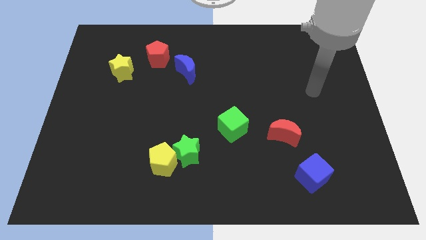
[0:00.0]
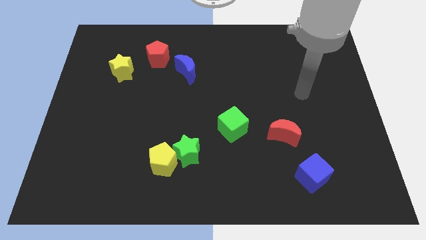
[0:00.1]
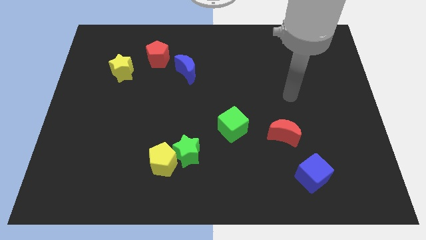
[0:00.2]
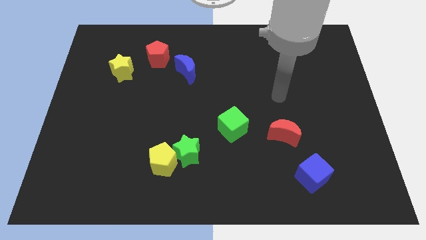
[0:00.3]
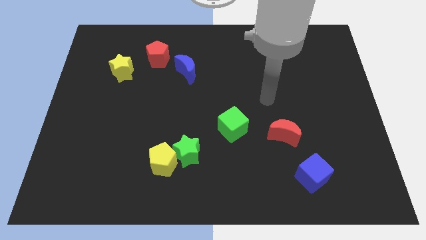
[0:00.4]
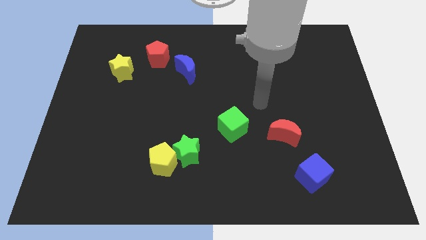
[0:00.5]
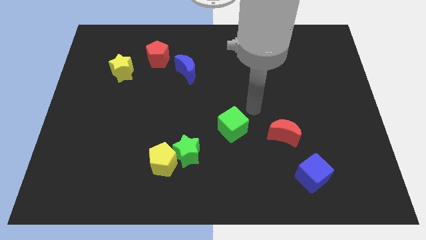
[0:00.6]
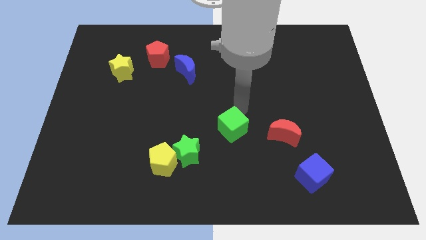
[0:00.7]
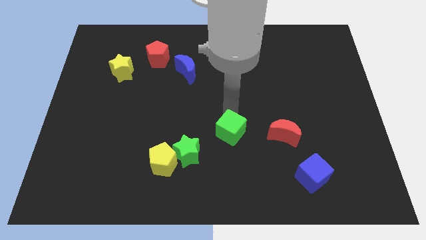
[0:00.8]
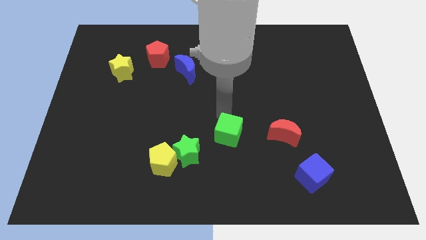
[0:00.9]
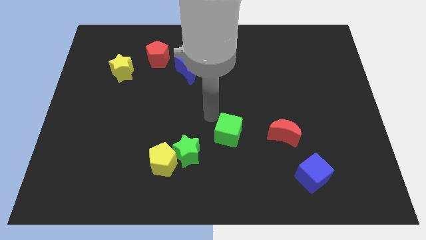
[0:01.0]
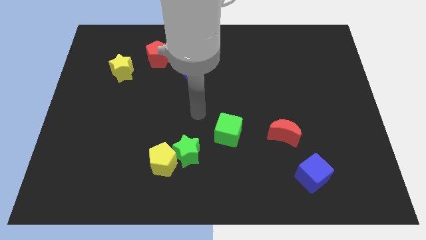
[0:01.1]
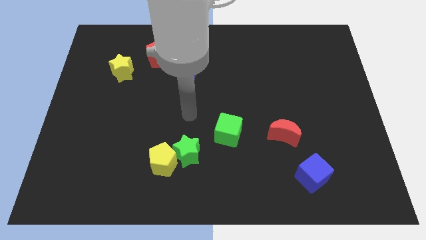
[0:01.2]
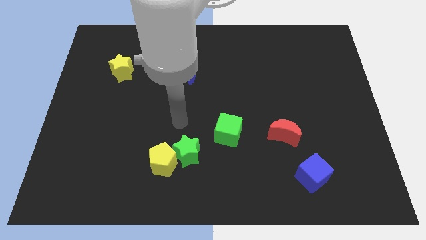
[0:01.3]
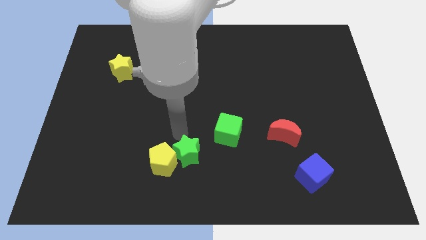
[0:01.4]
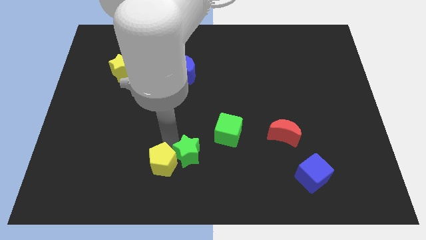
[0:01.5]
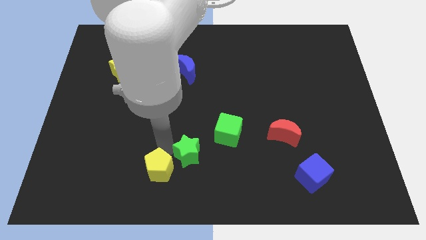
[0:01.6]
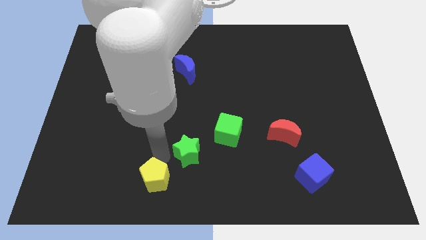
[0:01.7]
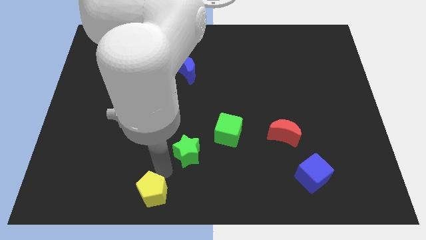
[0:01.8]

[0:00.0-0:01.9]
pull the green star apart from the yellow pentagon

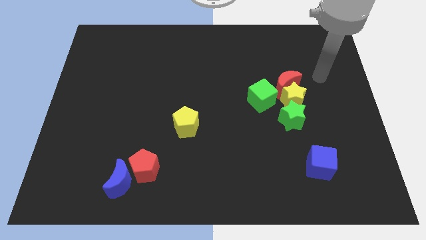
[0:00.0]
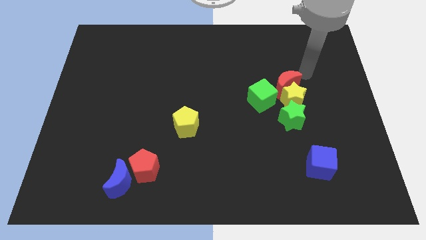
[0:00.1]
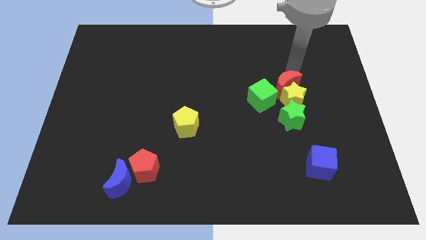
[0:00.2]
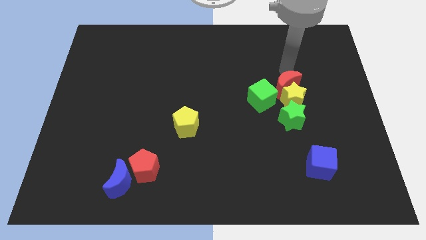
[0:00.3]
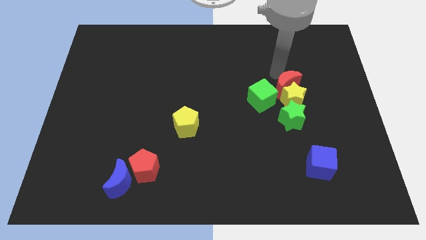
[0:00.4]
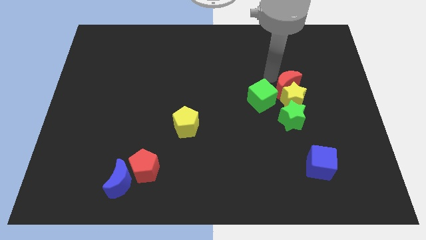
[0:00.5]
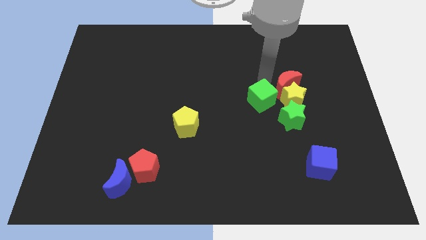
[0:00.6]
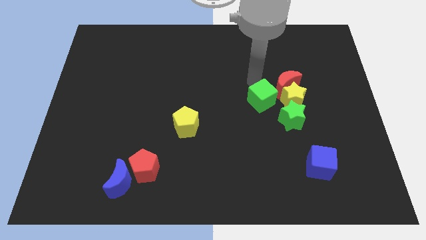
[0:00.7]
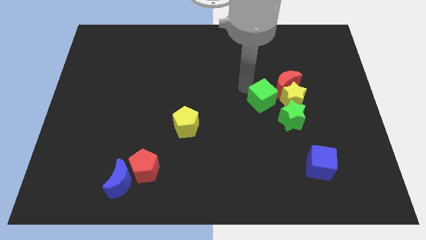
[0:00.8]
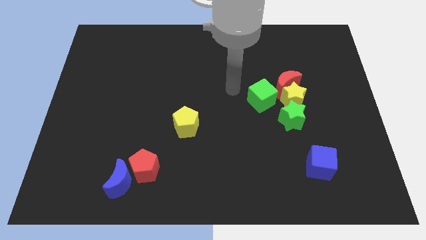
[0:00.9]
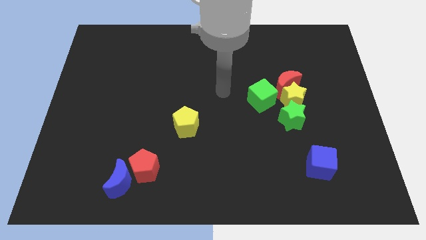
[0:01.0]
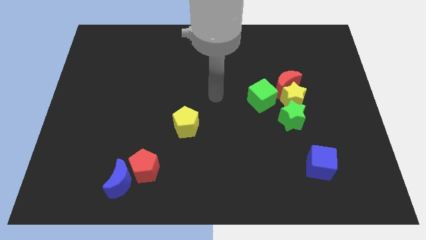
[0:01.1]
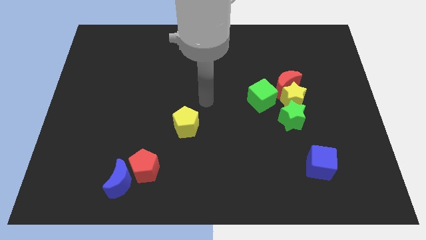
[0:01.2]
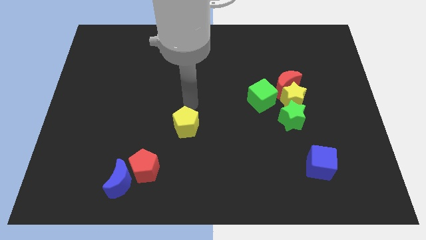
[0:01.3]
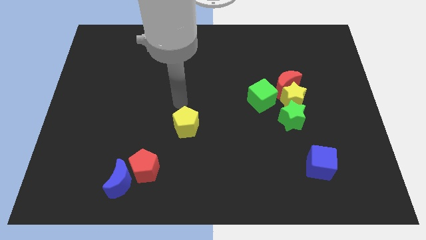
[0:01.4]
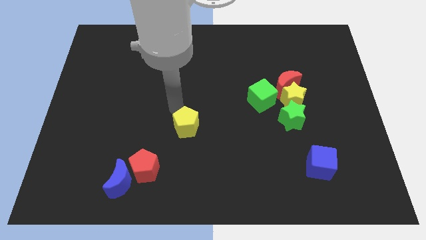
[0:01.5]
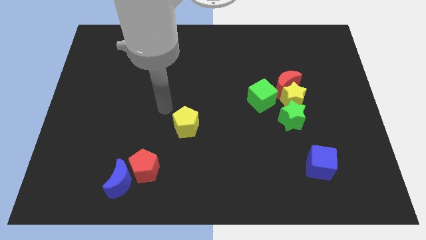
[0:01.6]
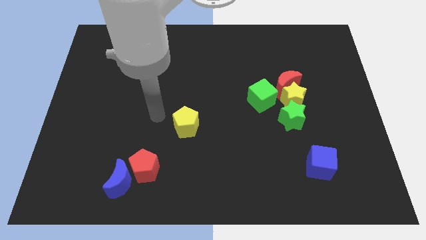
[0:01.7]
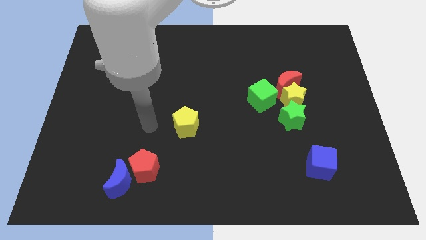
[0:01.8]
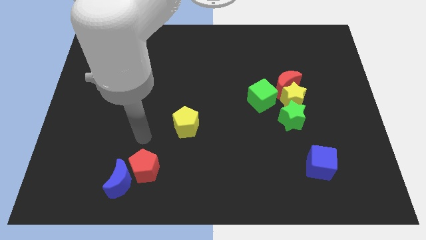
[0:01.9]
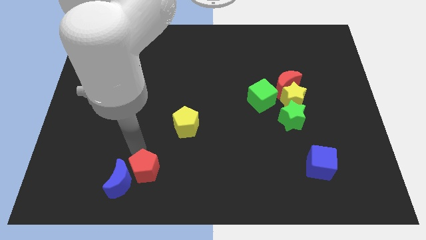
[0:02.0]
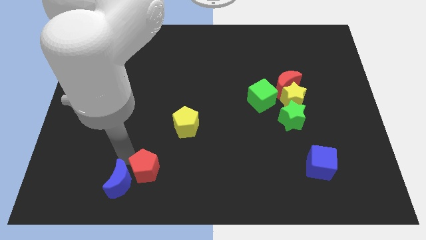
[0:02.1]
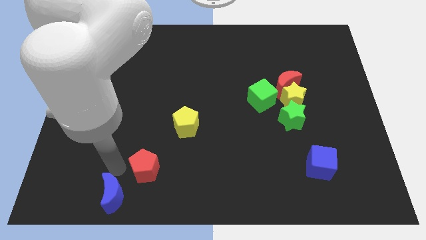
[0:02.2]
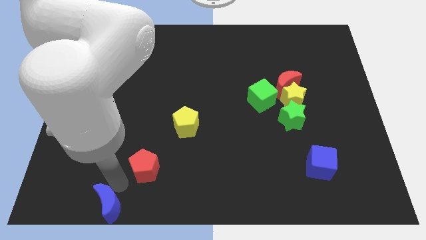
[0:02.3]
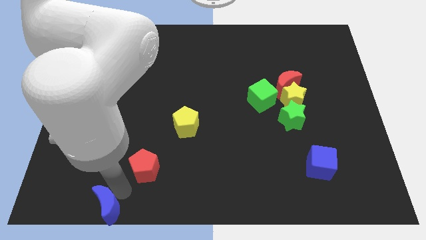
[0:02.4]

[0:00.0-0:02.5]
pull the red pentagon apart from the blue moon

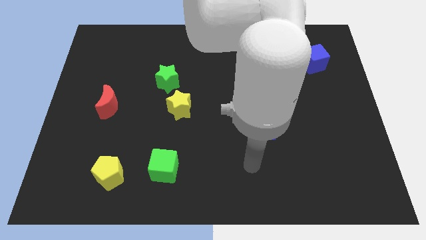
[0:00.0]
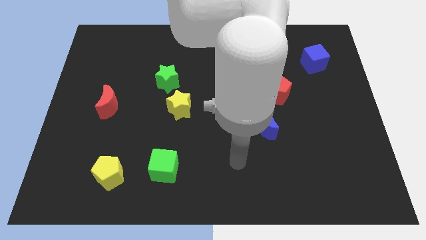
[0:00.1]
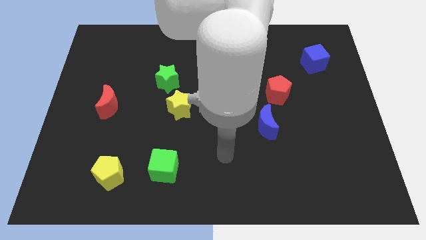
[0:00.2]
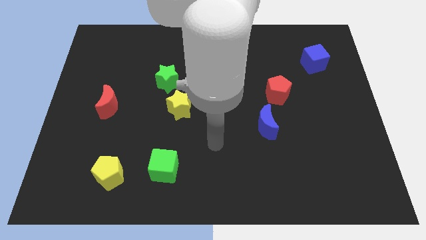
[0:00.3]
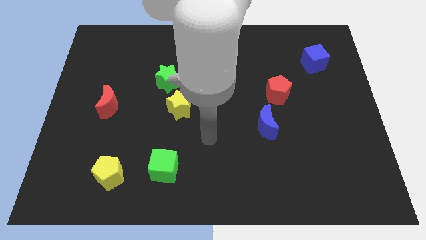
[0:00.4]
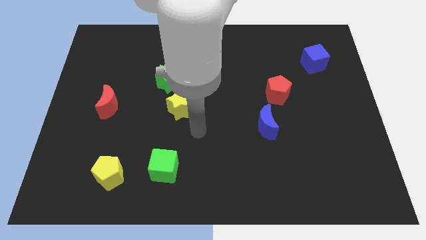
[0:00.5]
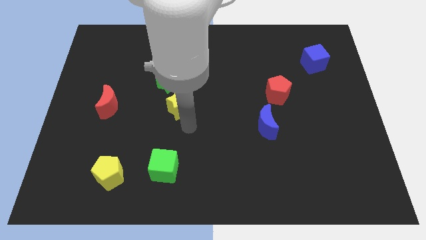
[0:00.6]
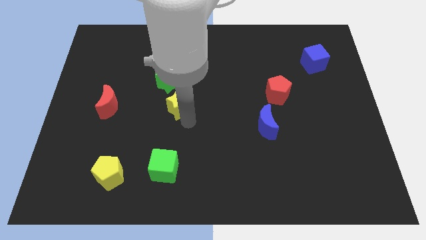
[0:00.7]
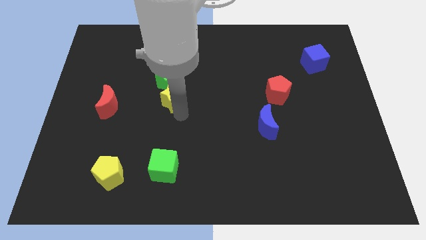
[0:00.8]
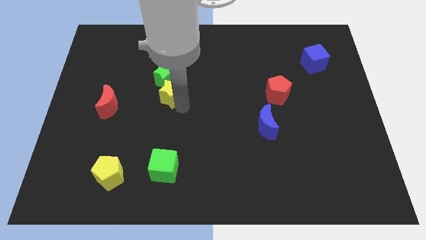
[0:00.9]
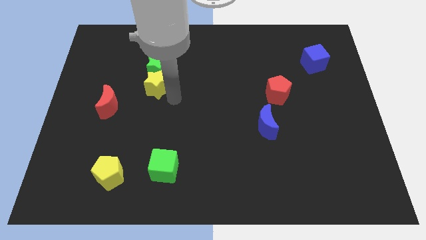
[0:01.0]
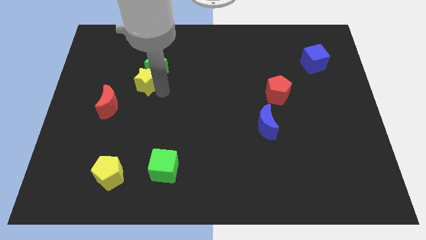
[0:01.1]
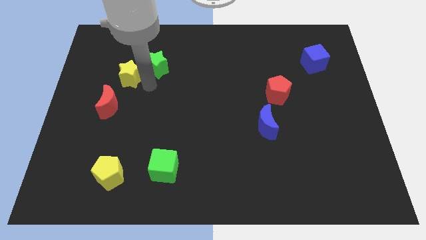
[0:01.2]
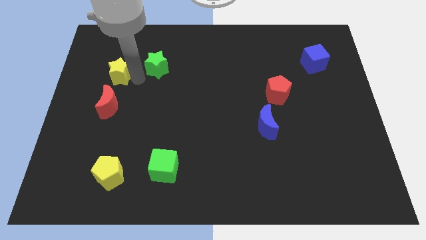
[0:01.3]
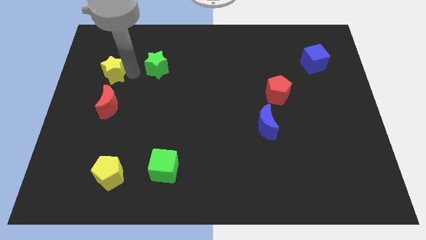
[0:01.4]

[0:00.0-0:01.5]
move the green star away from the yellow star

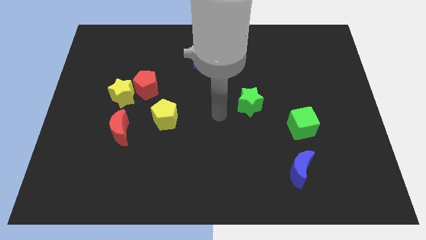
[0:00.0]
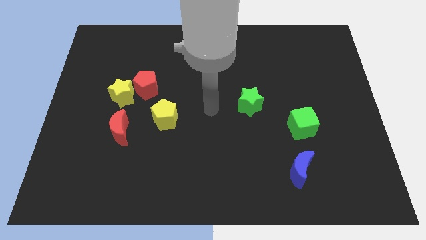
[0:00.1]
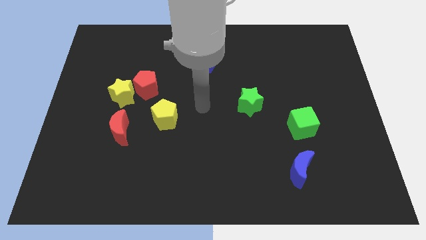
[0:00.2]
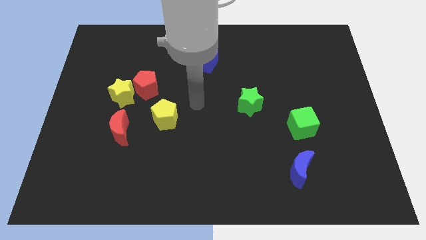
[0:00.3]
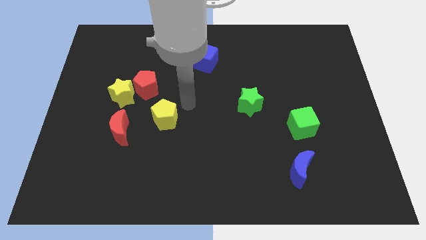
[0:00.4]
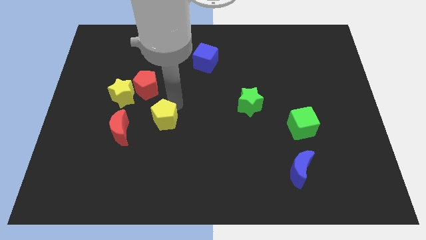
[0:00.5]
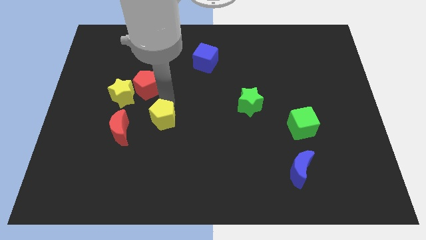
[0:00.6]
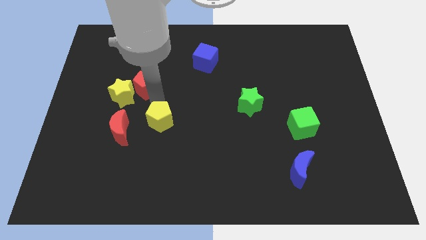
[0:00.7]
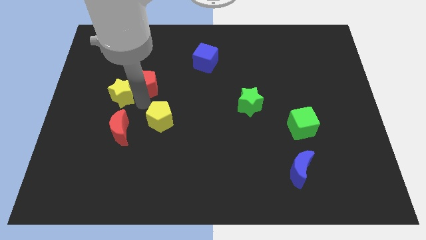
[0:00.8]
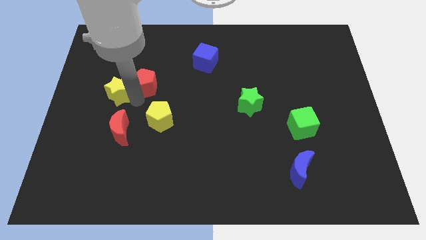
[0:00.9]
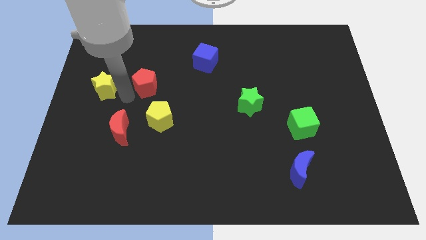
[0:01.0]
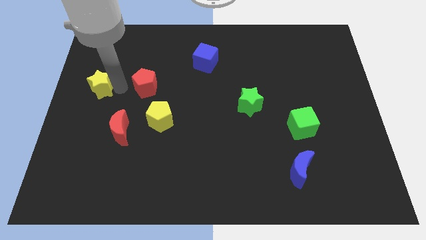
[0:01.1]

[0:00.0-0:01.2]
separate the red pentagon from the yellow star

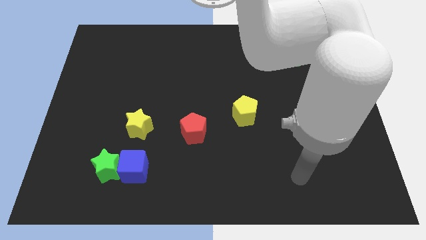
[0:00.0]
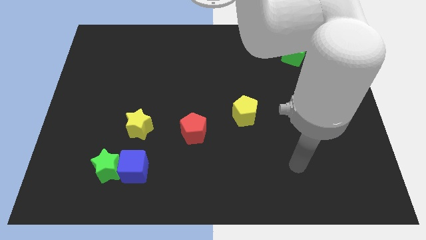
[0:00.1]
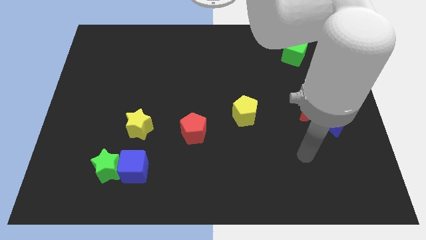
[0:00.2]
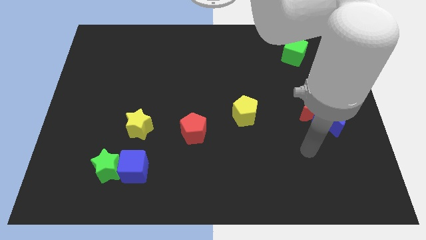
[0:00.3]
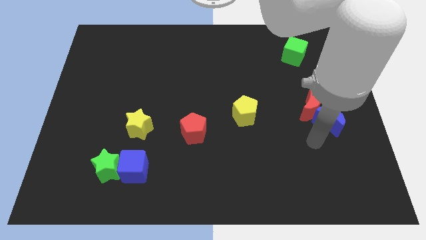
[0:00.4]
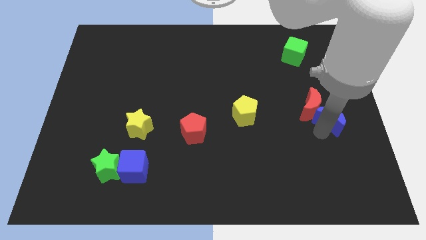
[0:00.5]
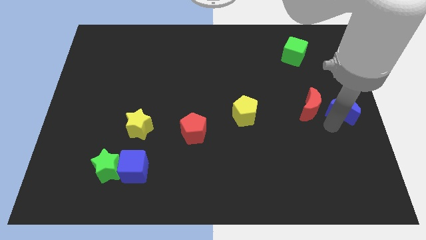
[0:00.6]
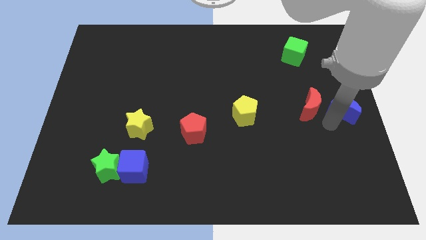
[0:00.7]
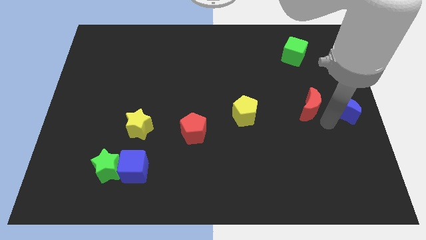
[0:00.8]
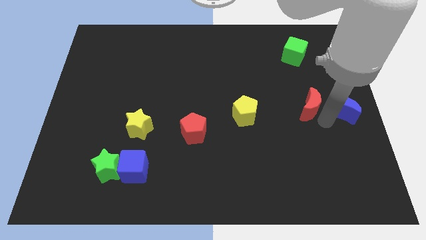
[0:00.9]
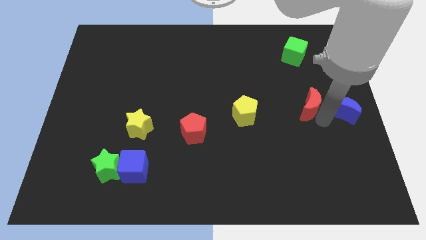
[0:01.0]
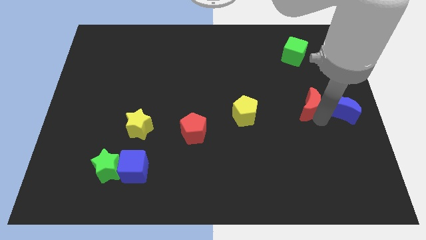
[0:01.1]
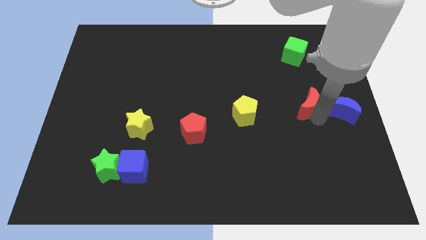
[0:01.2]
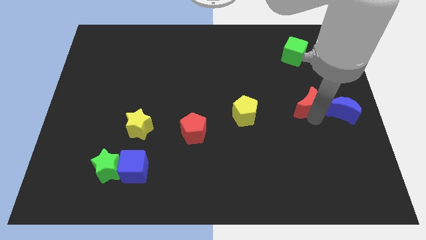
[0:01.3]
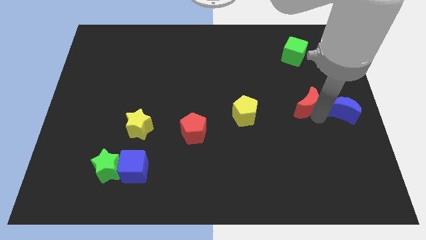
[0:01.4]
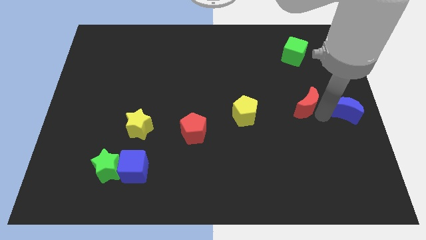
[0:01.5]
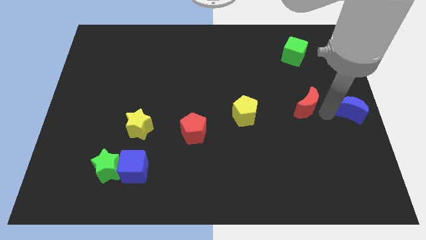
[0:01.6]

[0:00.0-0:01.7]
separate the red moon from the blue moon

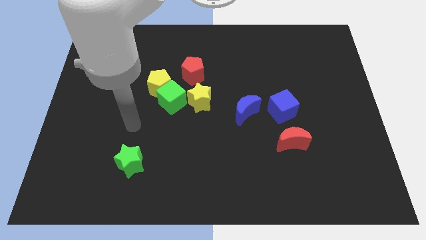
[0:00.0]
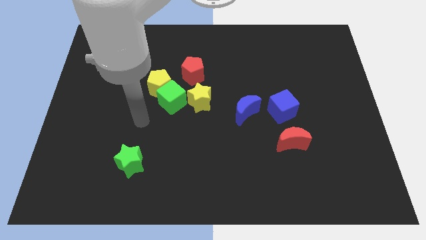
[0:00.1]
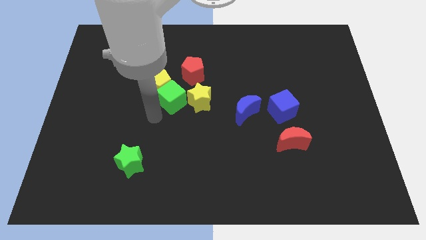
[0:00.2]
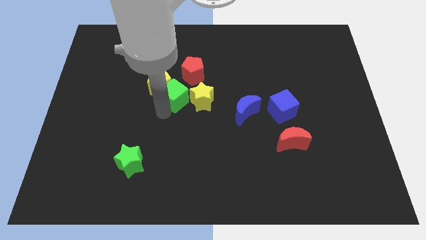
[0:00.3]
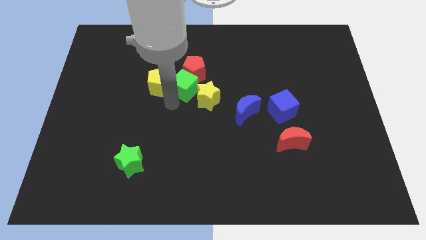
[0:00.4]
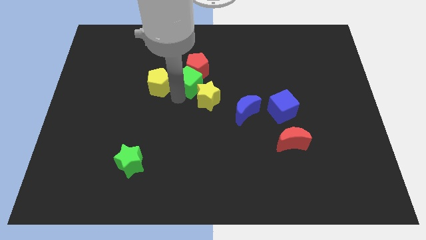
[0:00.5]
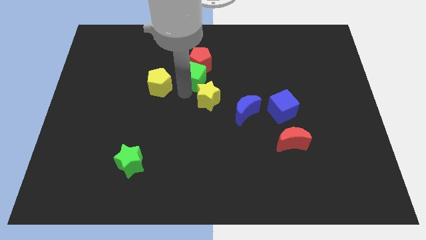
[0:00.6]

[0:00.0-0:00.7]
move the yellow pentagon away from the green cube and red pentagon
